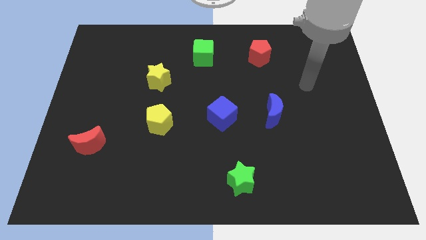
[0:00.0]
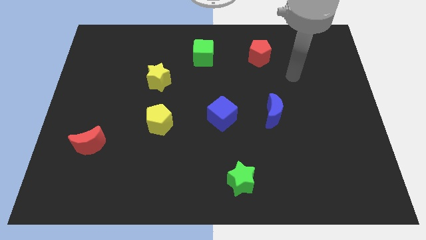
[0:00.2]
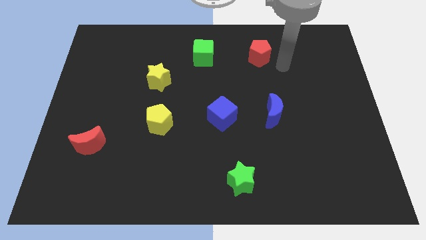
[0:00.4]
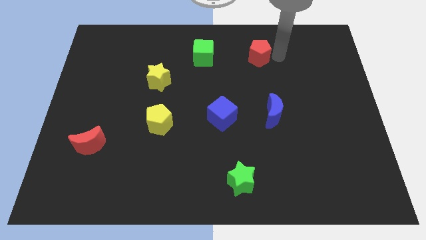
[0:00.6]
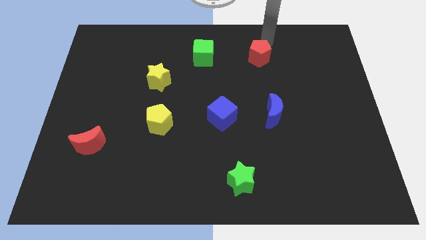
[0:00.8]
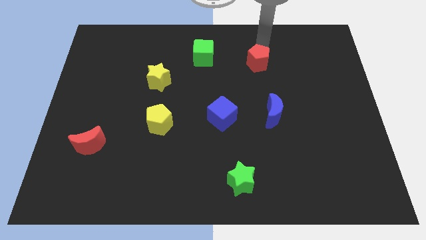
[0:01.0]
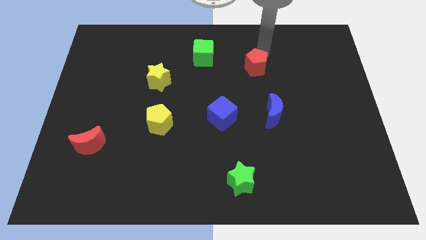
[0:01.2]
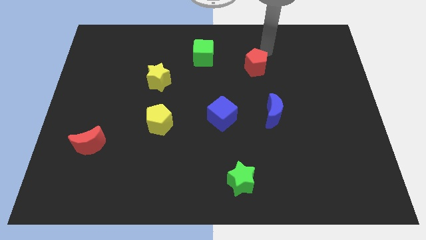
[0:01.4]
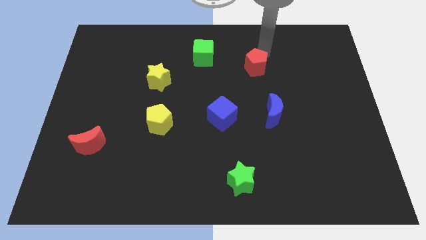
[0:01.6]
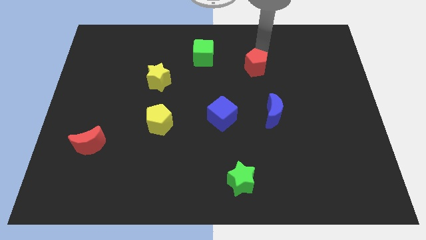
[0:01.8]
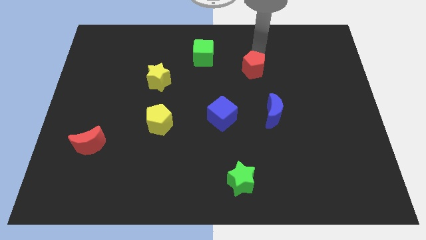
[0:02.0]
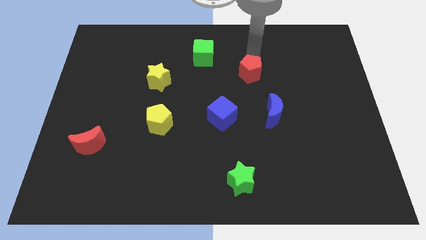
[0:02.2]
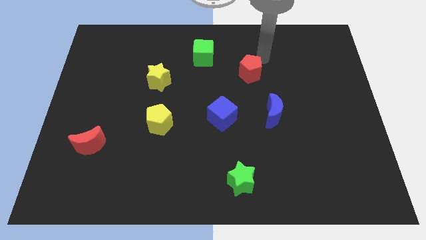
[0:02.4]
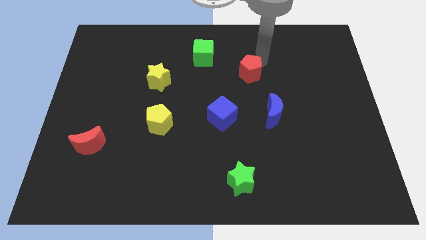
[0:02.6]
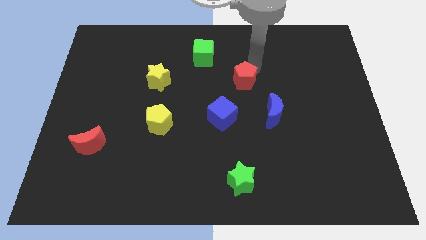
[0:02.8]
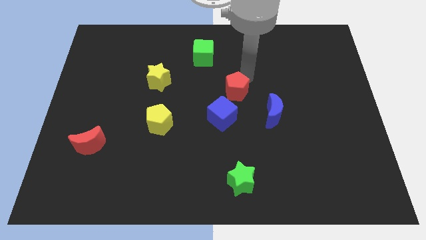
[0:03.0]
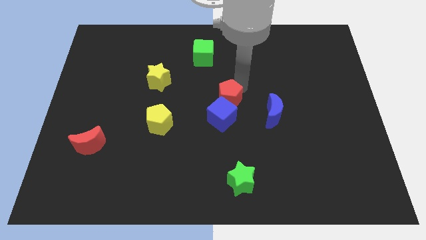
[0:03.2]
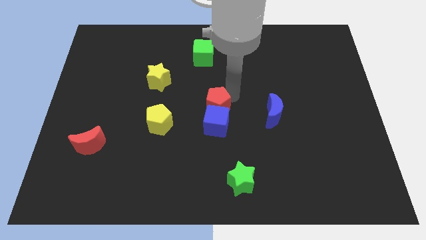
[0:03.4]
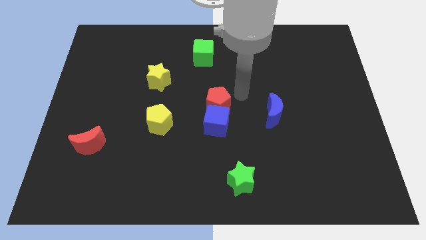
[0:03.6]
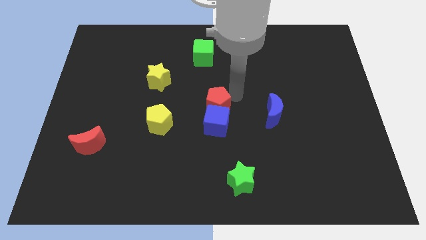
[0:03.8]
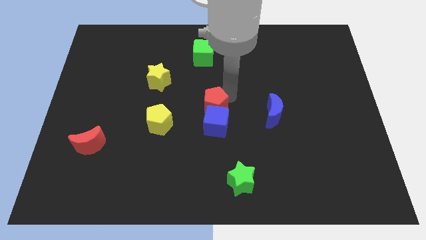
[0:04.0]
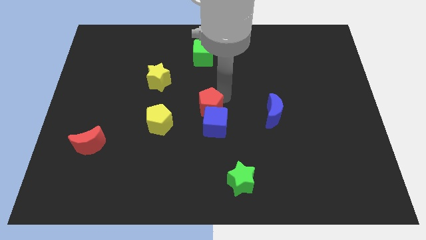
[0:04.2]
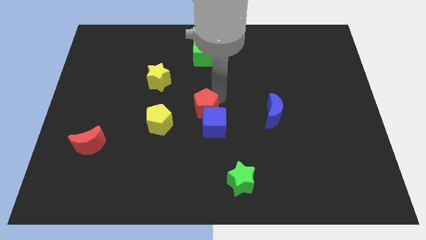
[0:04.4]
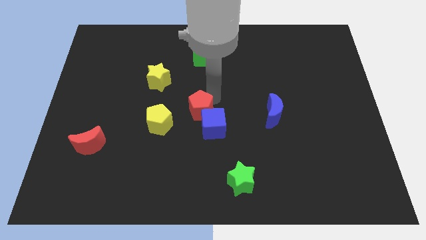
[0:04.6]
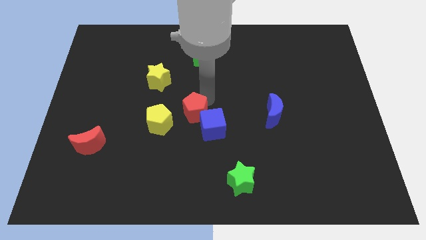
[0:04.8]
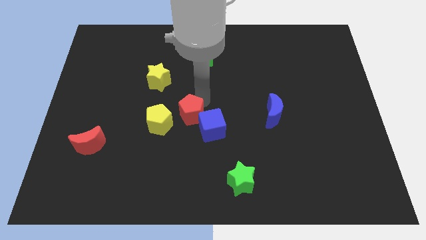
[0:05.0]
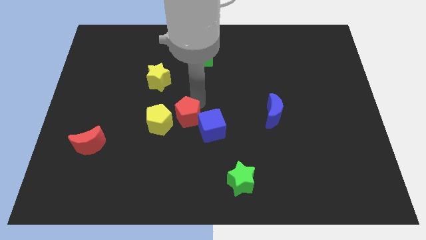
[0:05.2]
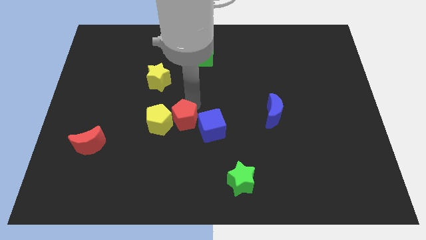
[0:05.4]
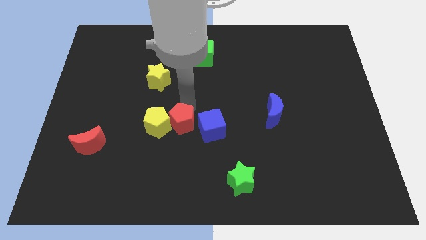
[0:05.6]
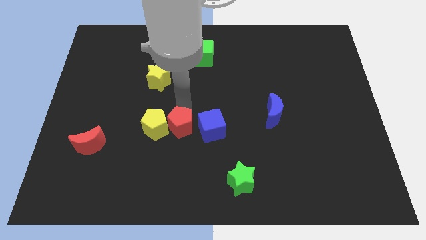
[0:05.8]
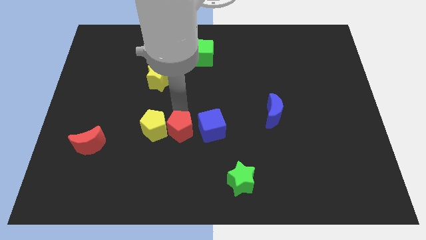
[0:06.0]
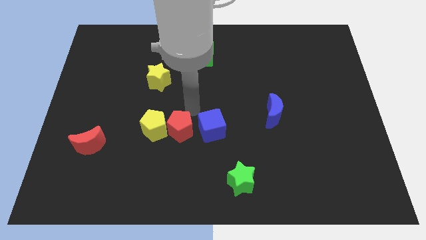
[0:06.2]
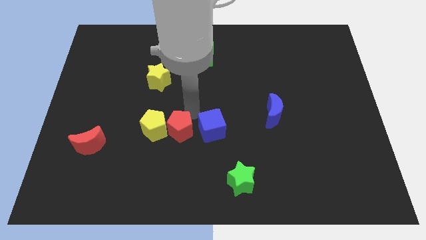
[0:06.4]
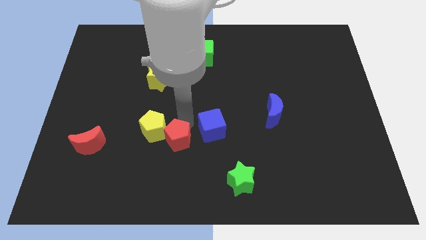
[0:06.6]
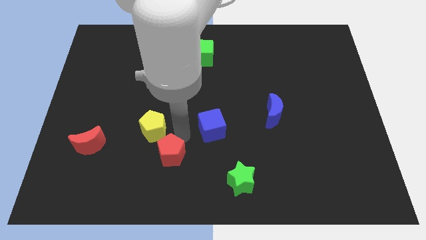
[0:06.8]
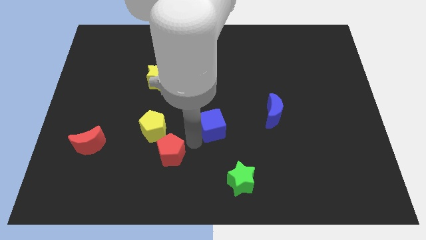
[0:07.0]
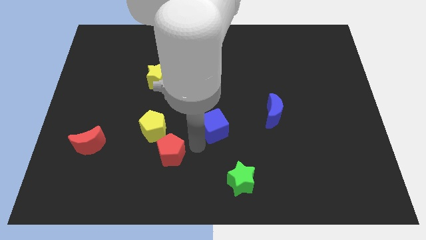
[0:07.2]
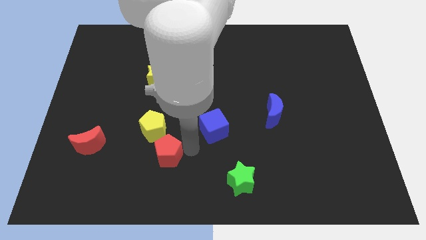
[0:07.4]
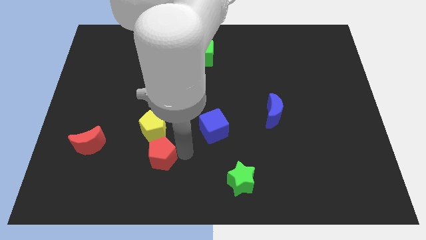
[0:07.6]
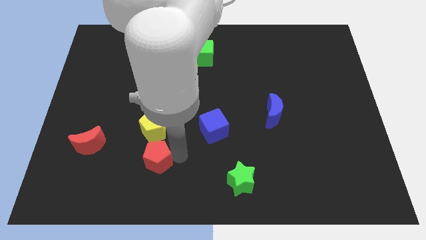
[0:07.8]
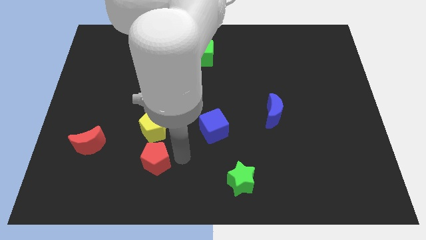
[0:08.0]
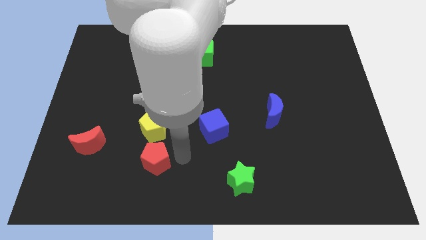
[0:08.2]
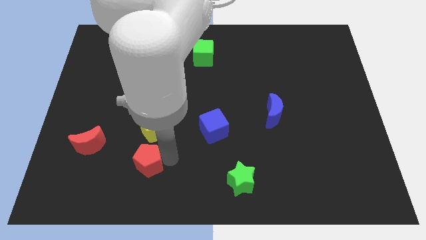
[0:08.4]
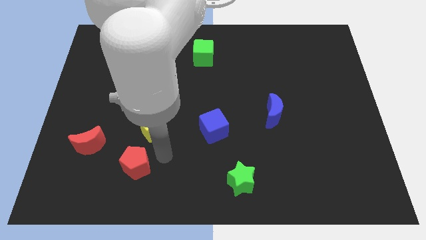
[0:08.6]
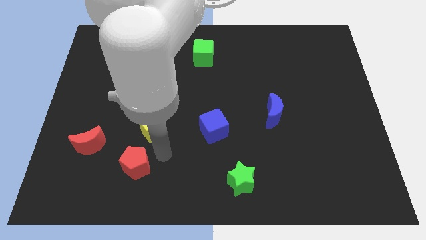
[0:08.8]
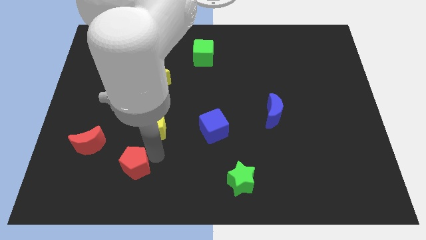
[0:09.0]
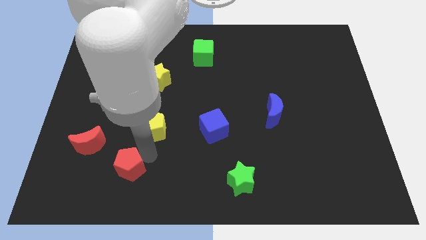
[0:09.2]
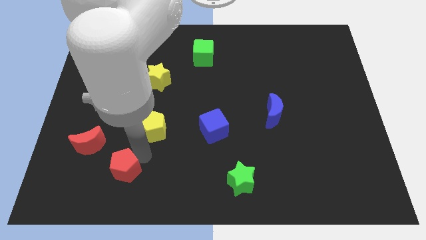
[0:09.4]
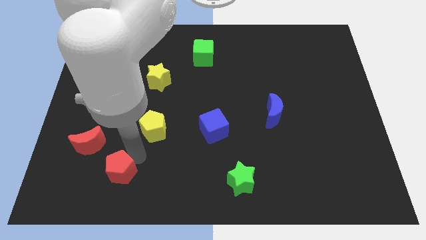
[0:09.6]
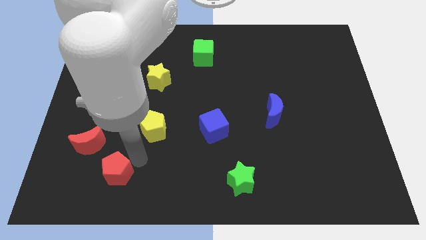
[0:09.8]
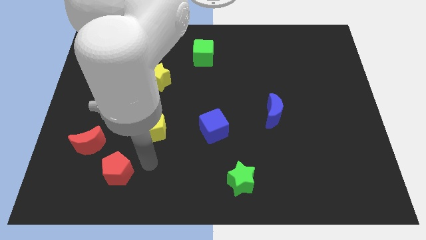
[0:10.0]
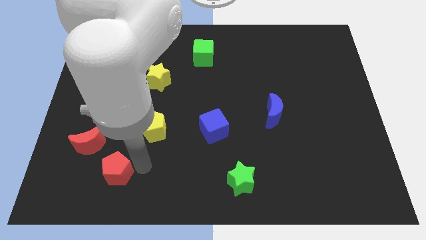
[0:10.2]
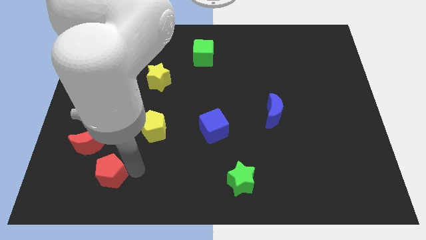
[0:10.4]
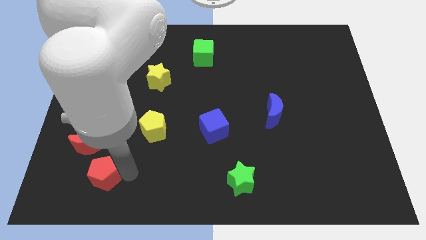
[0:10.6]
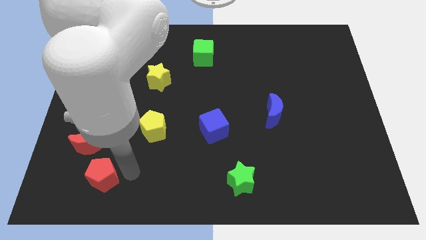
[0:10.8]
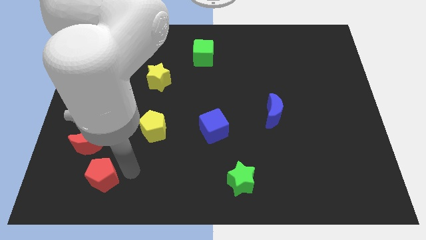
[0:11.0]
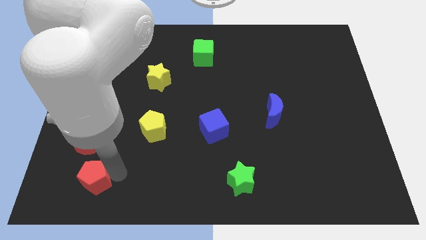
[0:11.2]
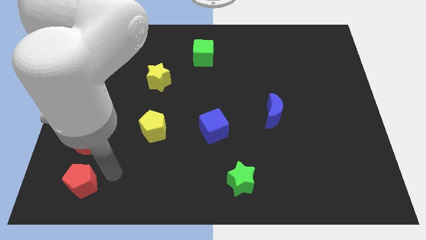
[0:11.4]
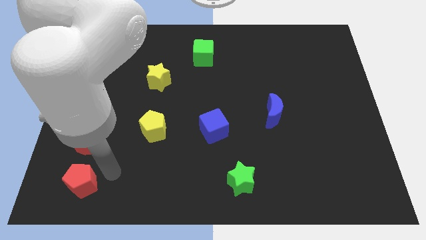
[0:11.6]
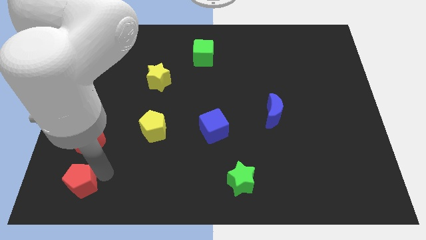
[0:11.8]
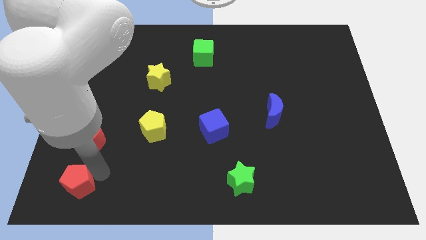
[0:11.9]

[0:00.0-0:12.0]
put the red pentagon to the bottom left
